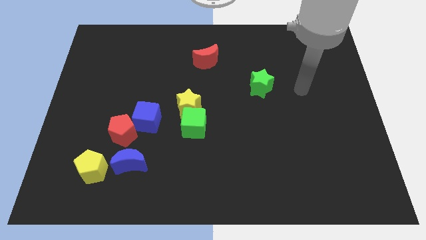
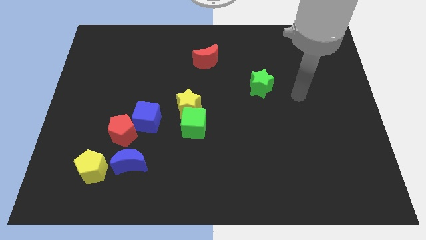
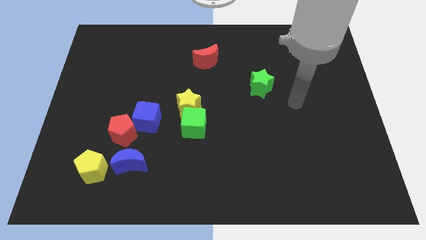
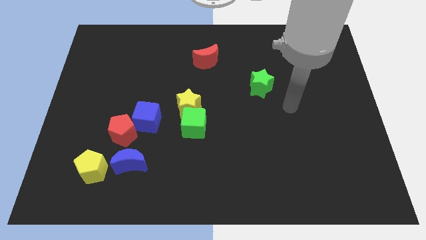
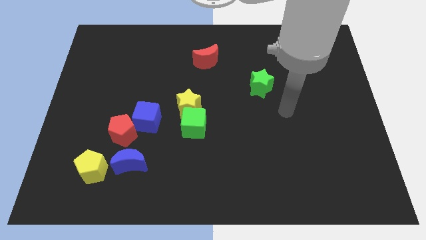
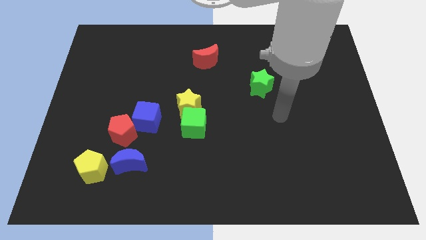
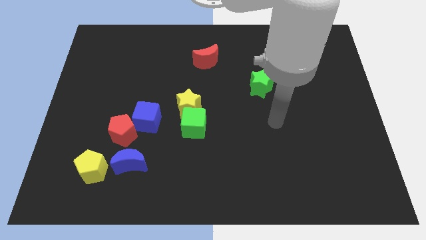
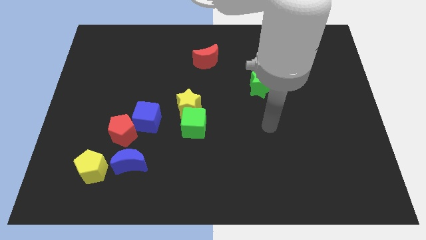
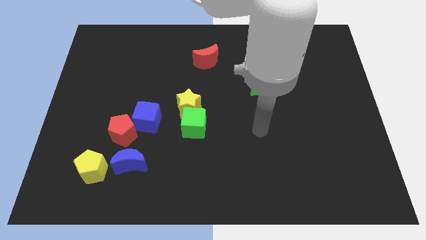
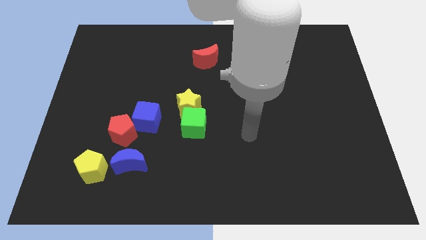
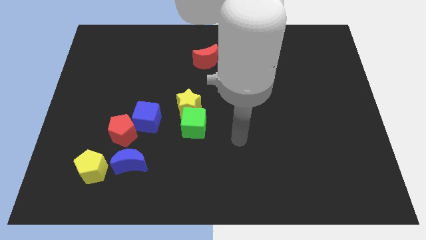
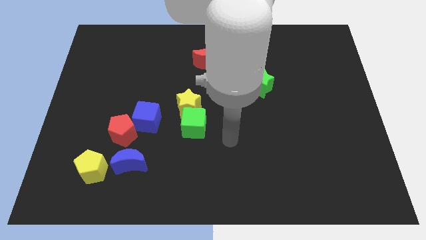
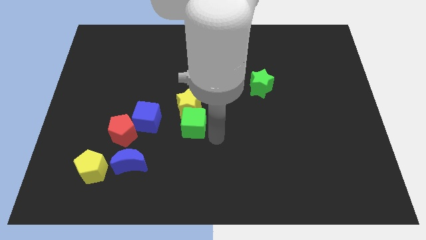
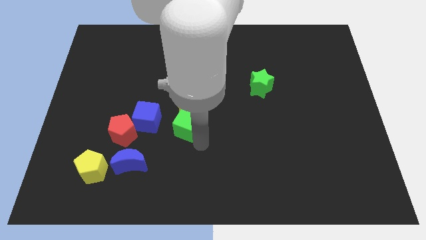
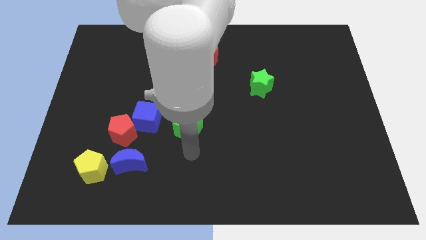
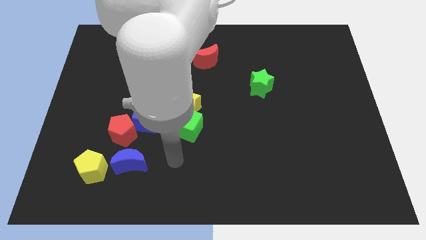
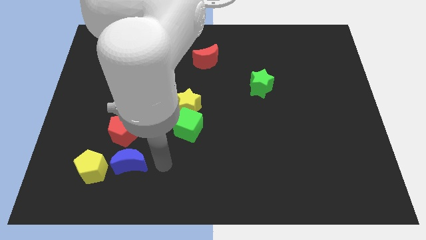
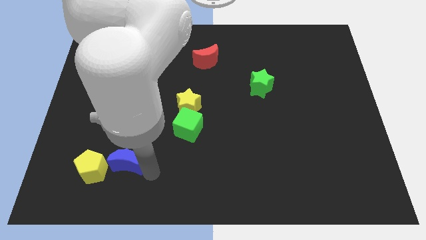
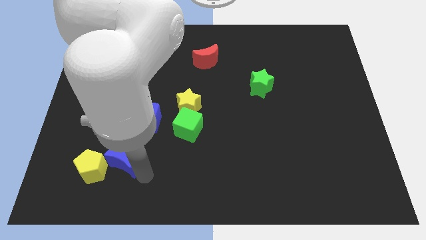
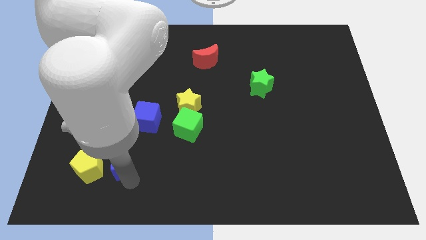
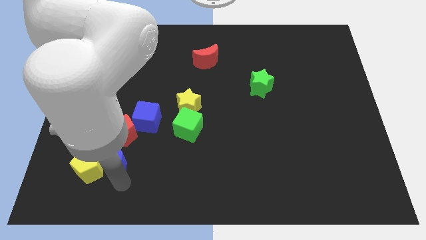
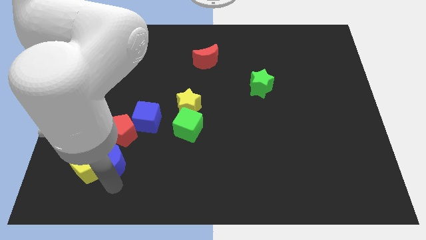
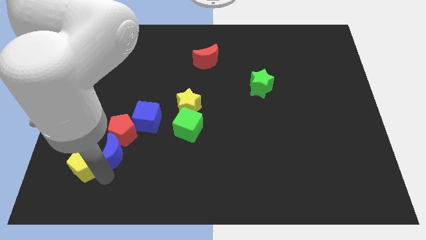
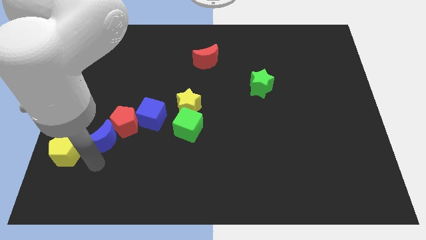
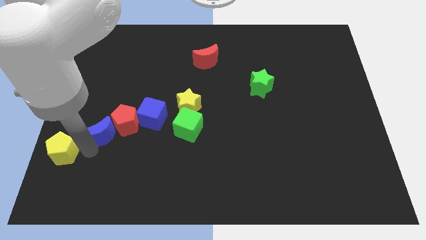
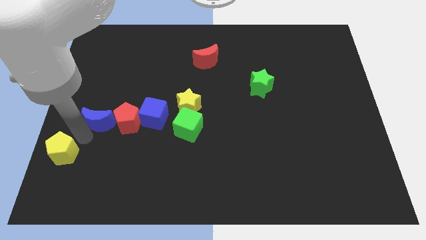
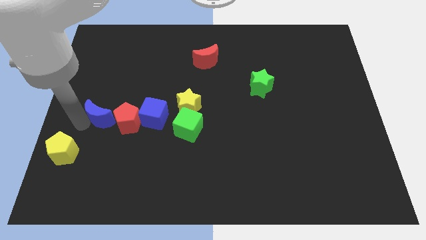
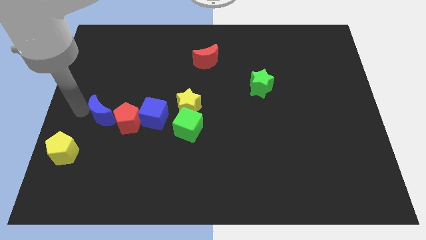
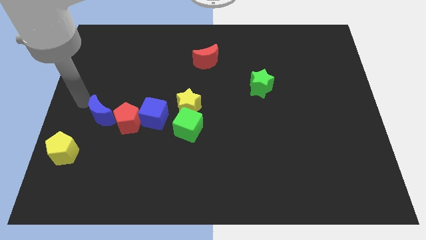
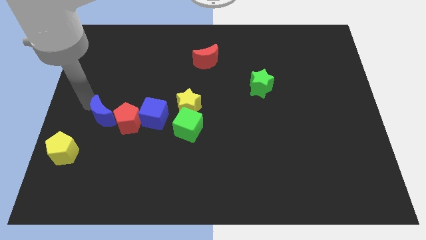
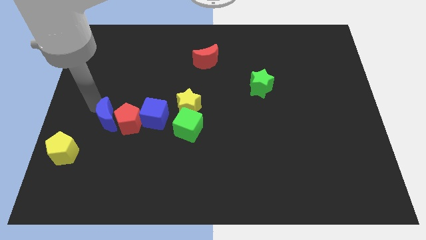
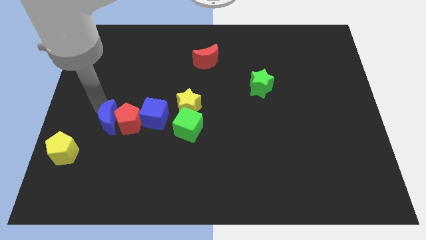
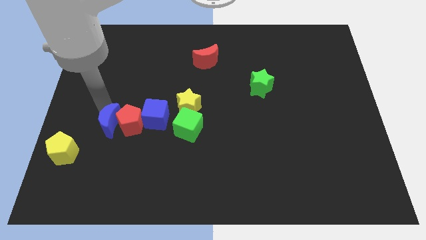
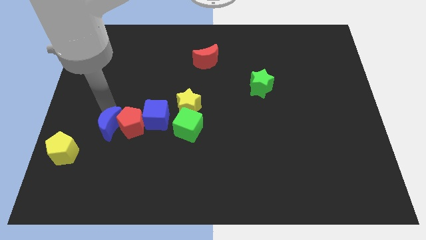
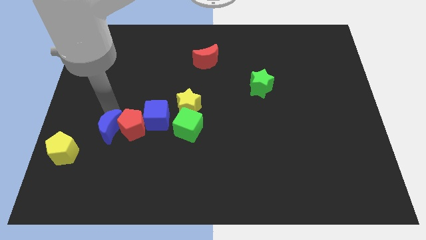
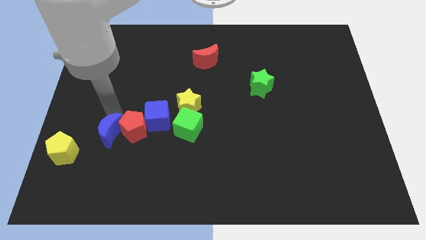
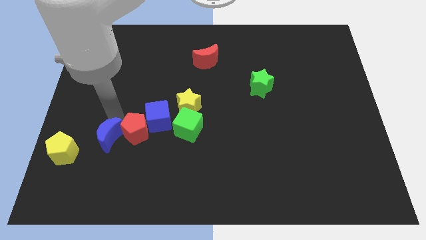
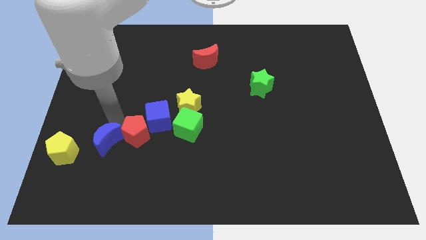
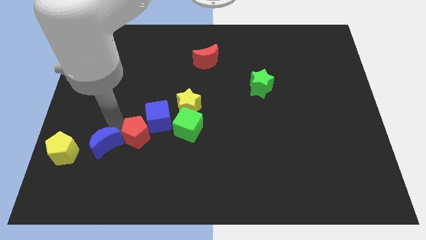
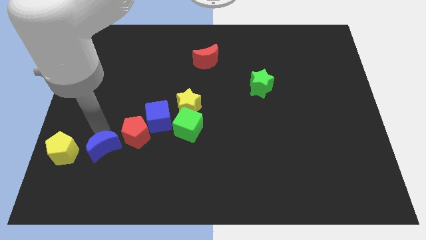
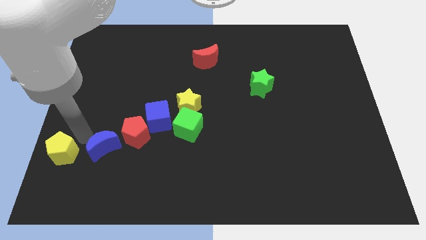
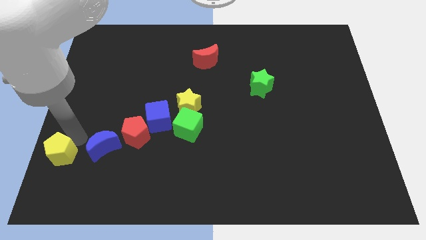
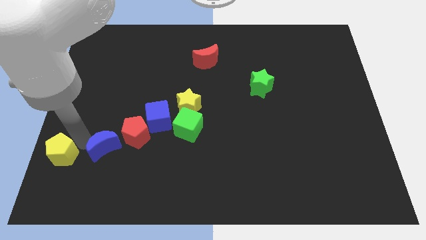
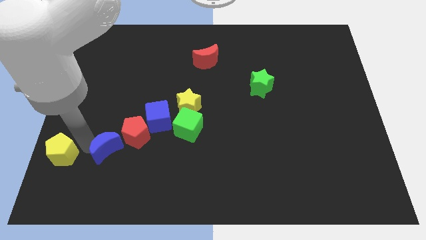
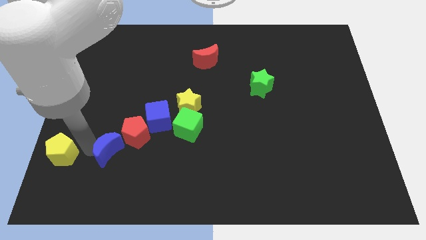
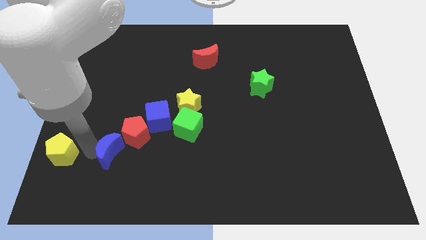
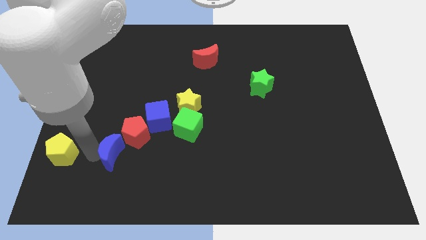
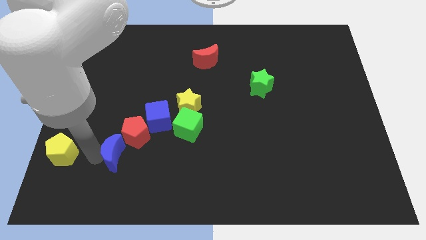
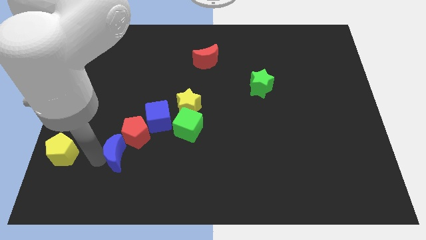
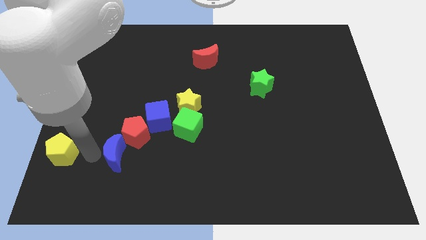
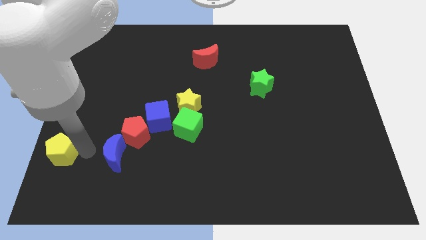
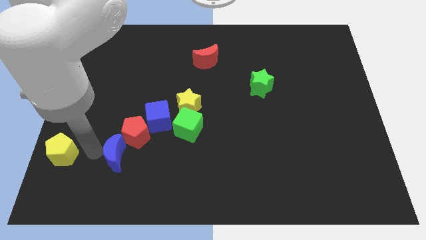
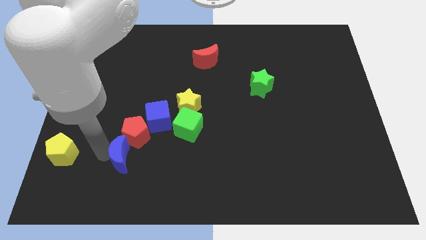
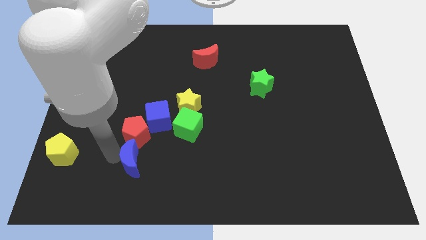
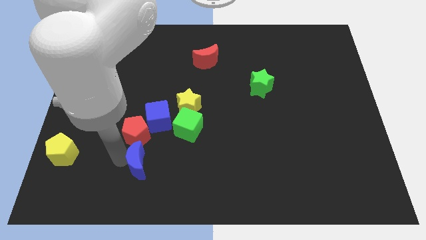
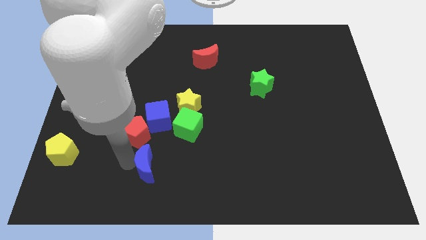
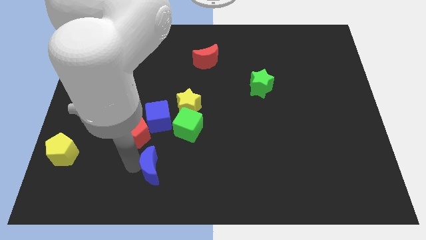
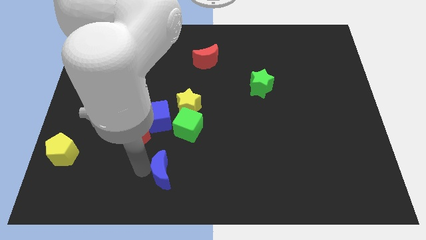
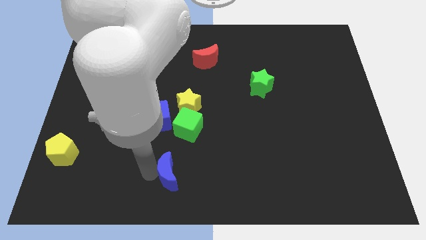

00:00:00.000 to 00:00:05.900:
slightly push the blue moon right

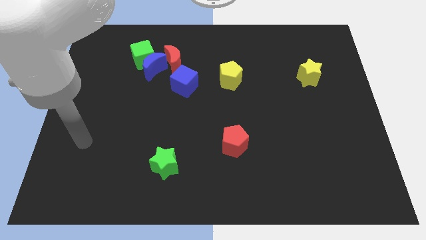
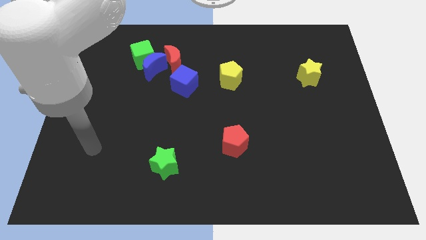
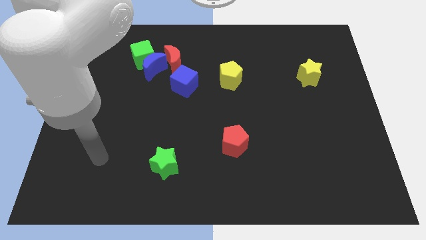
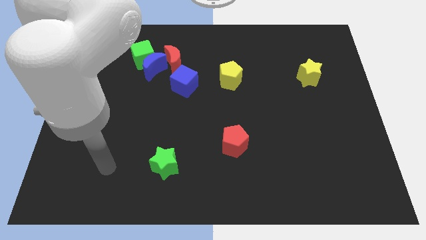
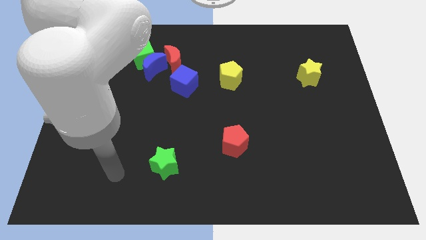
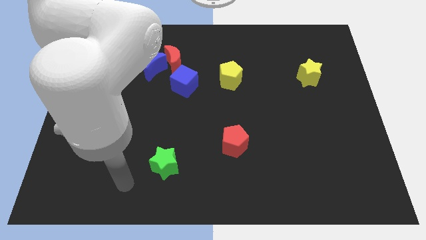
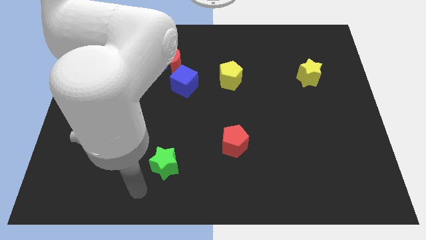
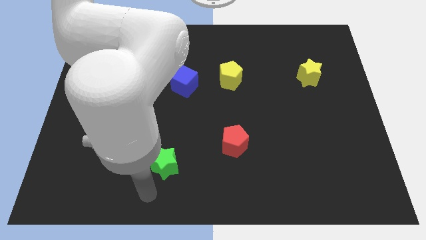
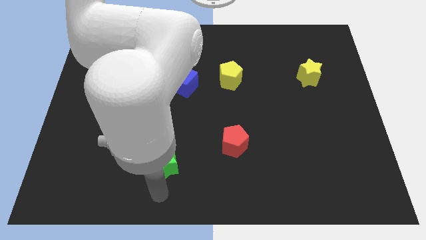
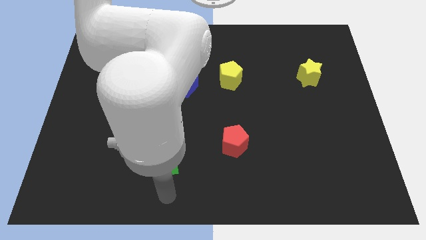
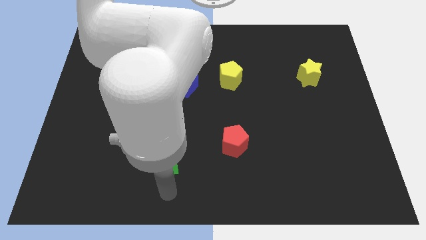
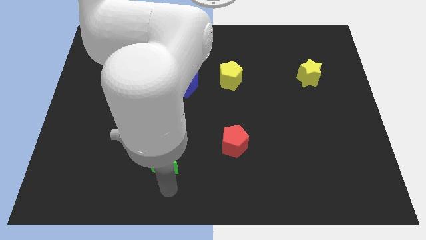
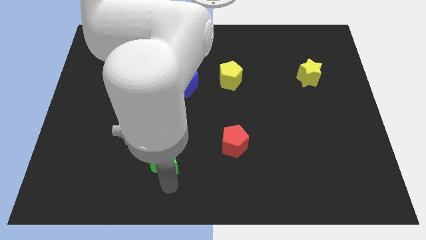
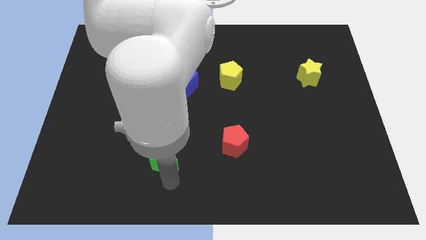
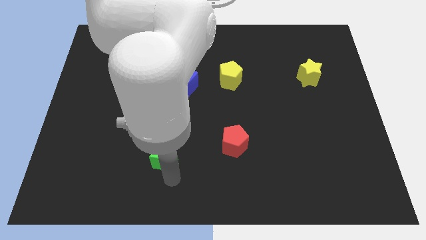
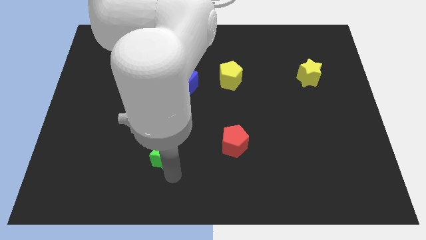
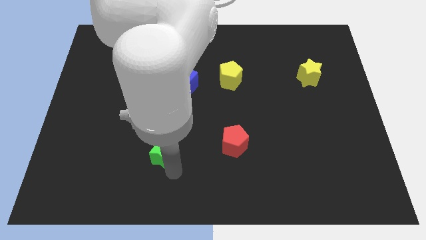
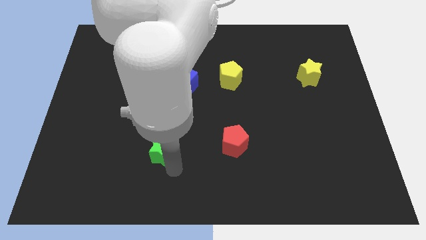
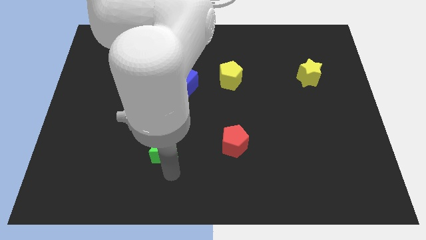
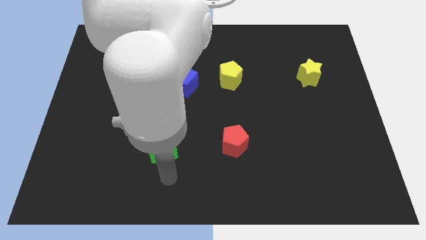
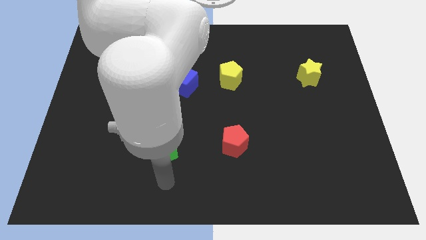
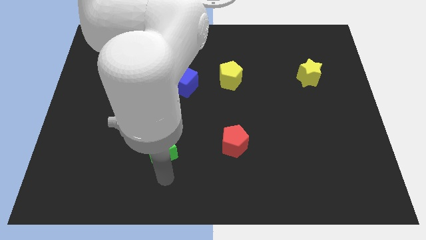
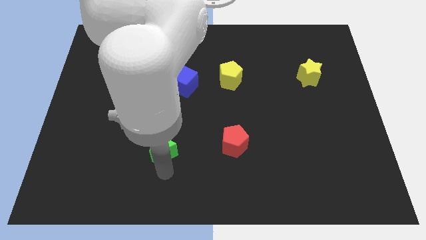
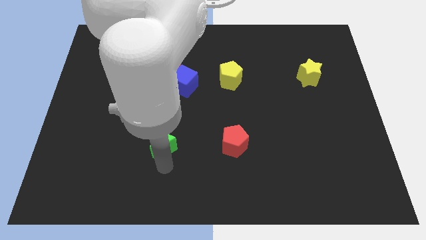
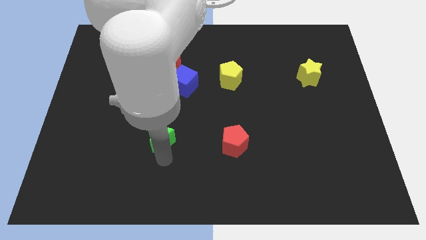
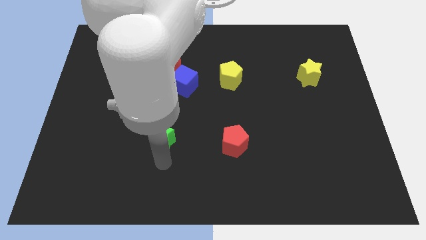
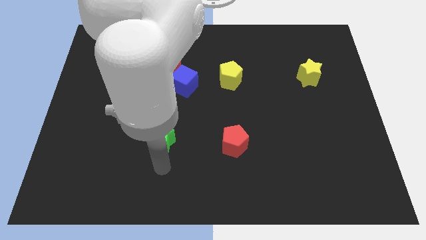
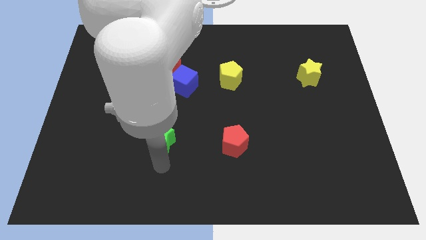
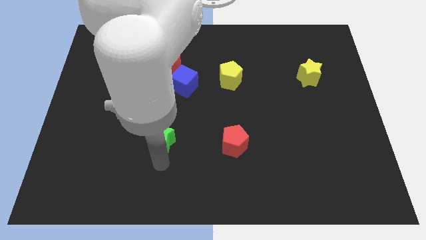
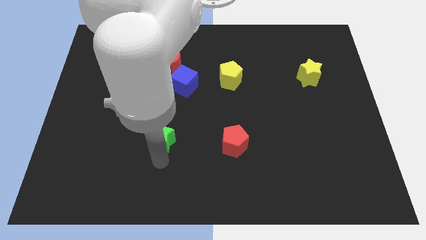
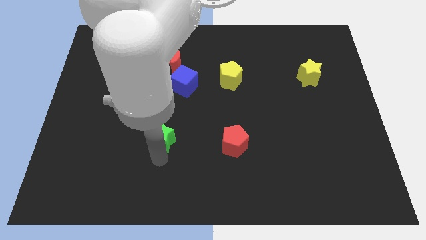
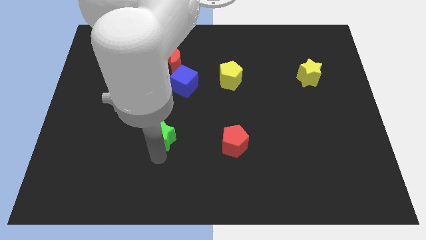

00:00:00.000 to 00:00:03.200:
slide the green star a little upwards
